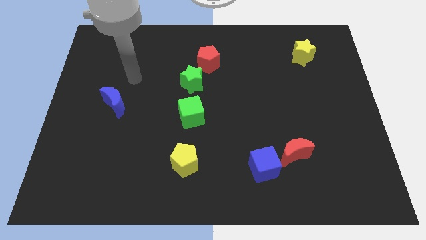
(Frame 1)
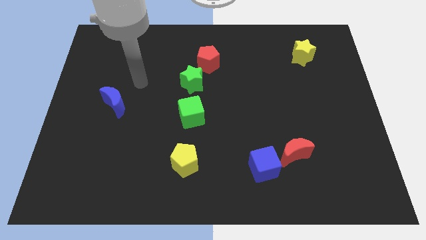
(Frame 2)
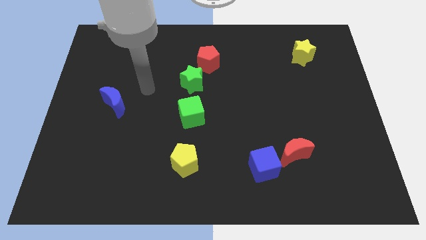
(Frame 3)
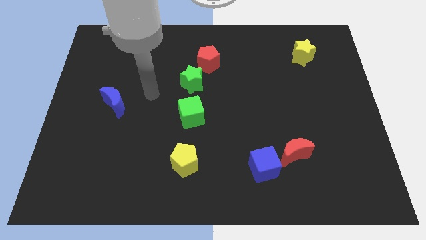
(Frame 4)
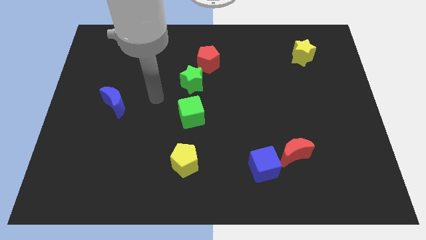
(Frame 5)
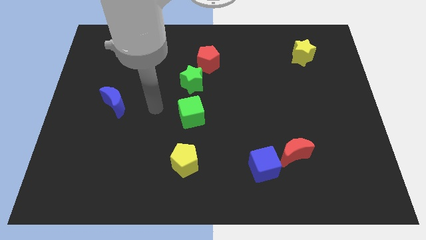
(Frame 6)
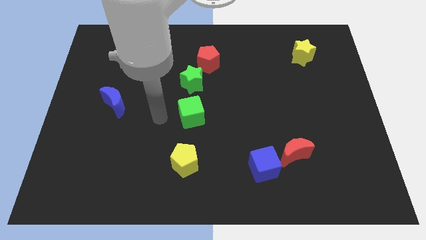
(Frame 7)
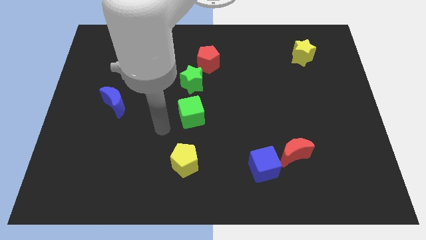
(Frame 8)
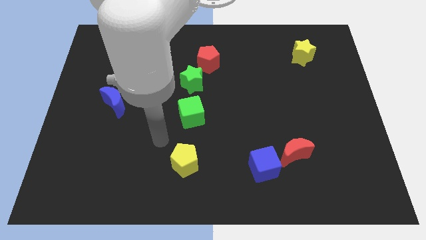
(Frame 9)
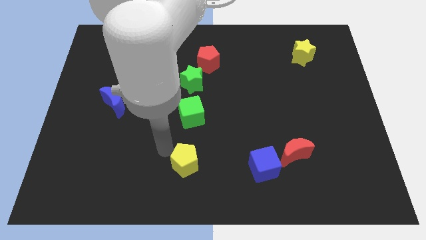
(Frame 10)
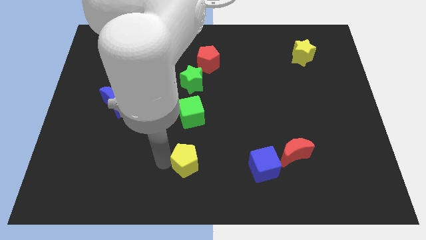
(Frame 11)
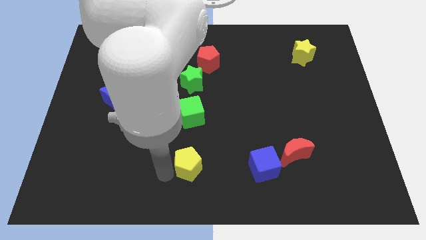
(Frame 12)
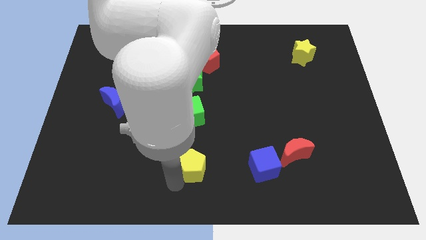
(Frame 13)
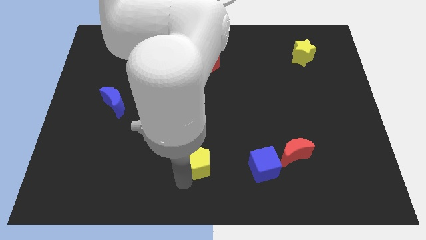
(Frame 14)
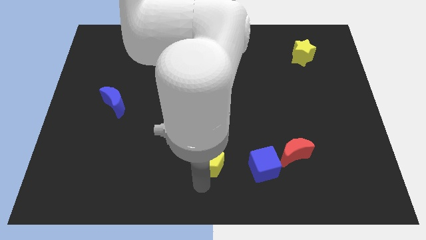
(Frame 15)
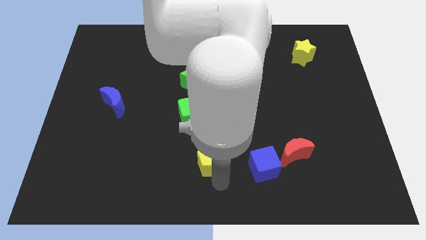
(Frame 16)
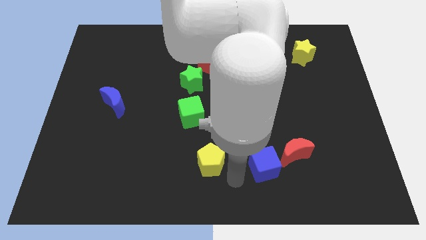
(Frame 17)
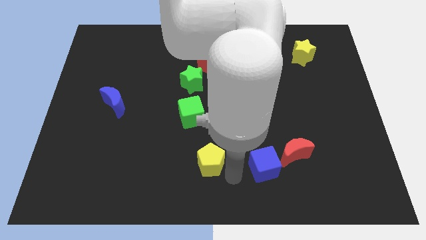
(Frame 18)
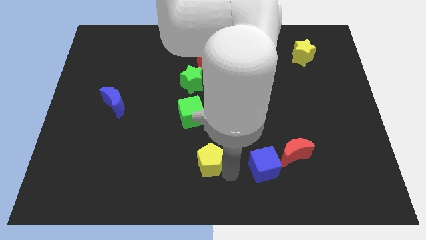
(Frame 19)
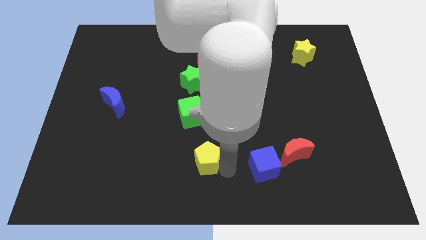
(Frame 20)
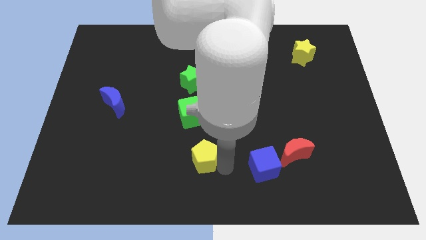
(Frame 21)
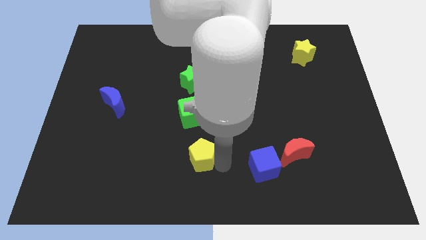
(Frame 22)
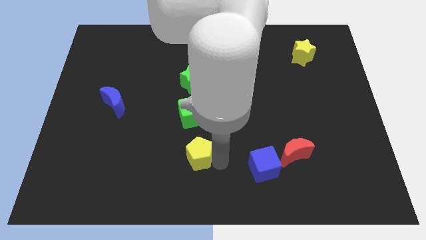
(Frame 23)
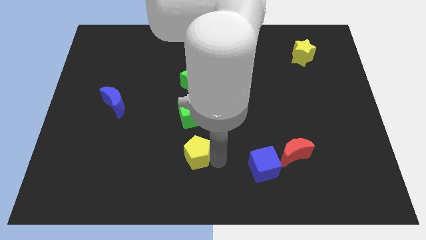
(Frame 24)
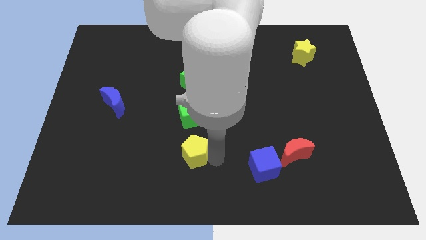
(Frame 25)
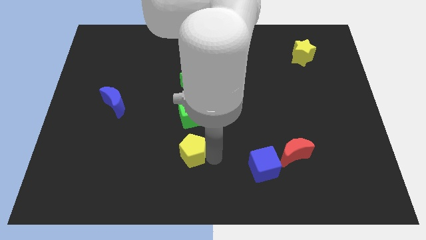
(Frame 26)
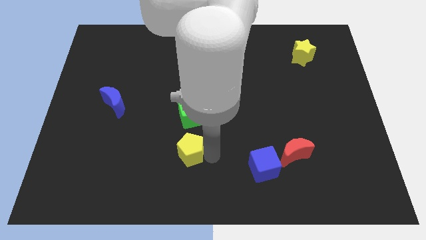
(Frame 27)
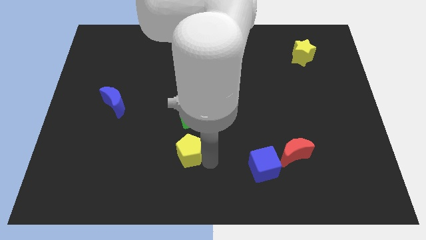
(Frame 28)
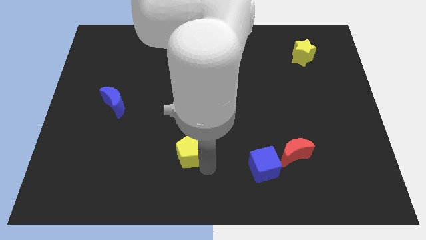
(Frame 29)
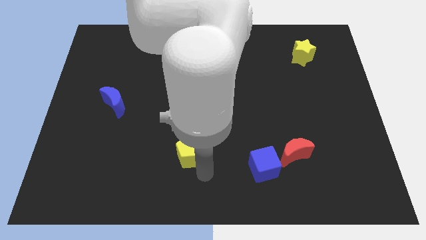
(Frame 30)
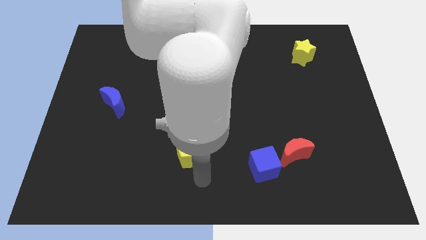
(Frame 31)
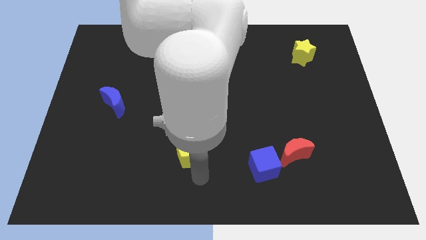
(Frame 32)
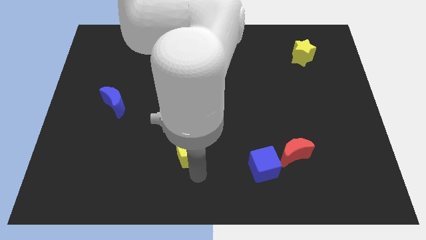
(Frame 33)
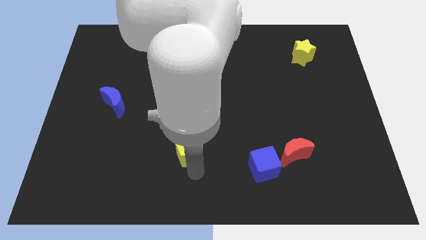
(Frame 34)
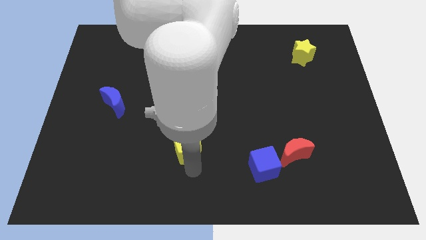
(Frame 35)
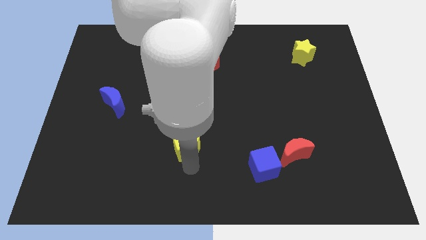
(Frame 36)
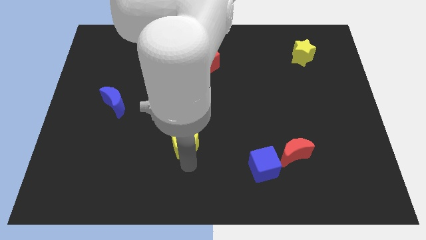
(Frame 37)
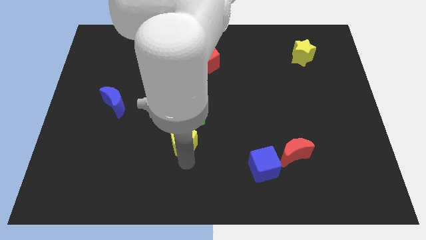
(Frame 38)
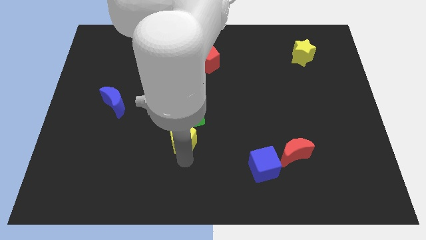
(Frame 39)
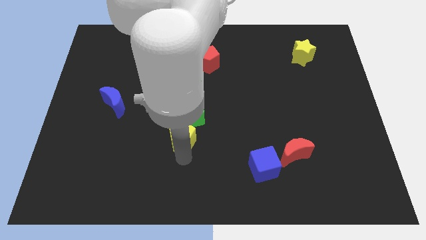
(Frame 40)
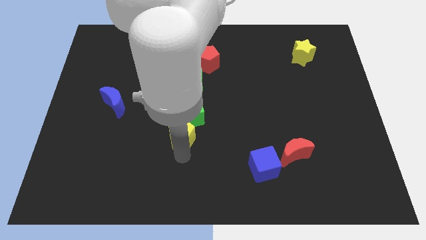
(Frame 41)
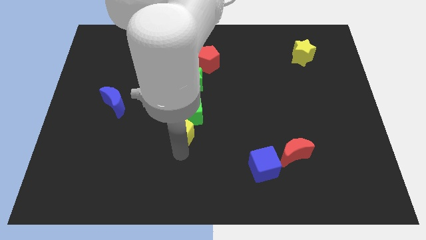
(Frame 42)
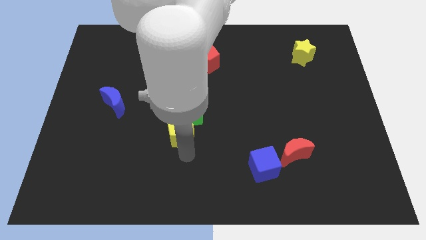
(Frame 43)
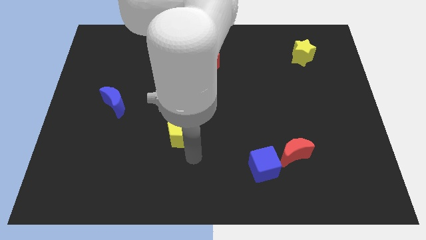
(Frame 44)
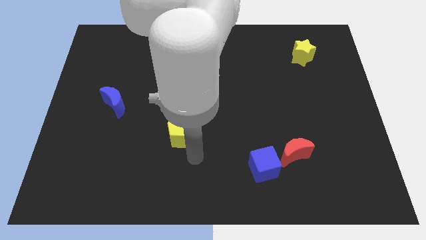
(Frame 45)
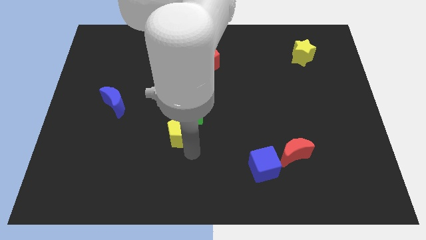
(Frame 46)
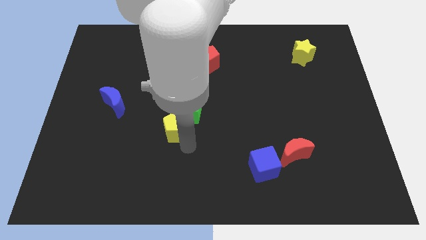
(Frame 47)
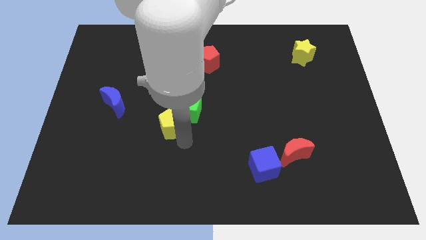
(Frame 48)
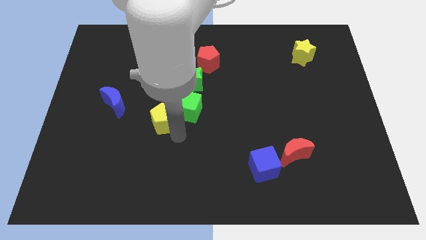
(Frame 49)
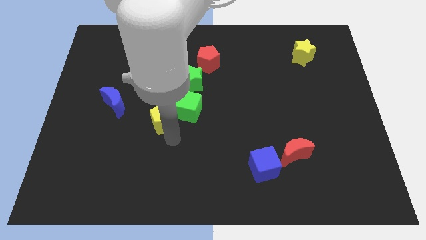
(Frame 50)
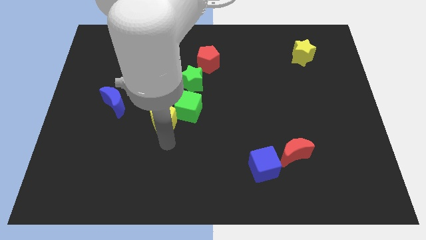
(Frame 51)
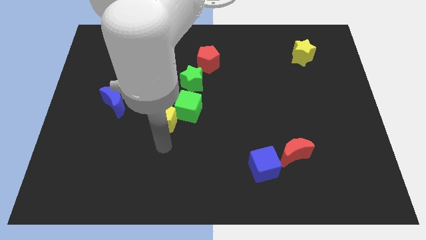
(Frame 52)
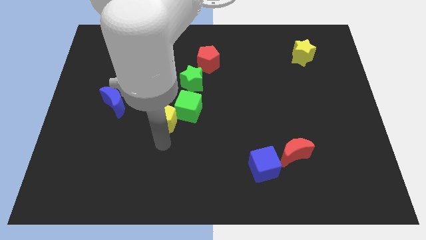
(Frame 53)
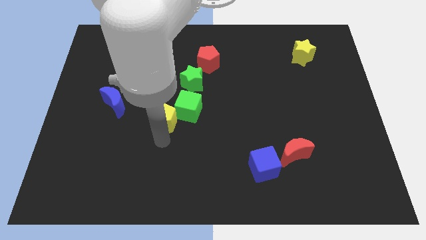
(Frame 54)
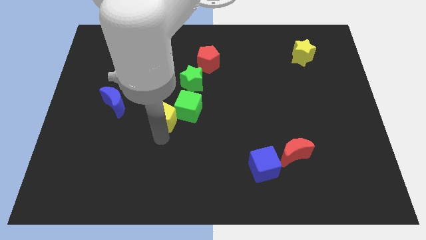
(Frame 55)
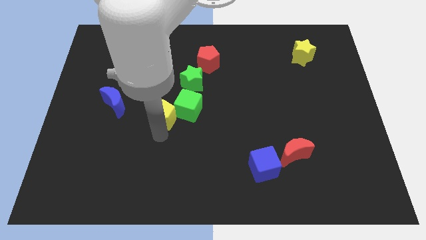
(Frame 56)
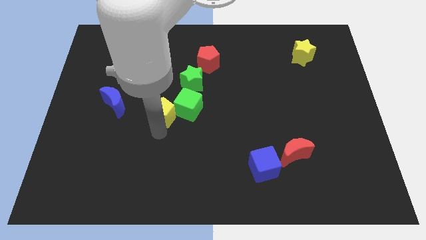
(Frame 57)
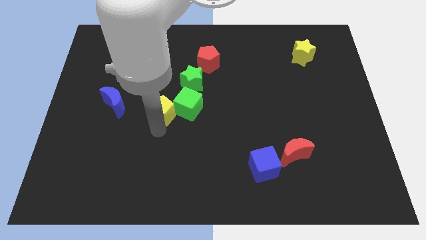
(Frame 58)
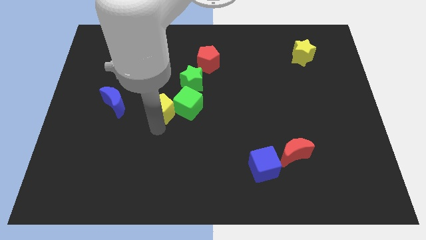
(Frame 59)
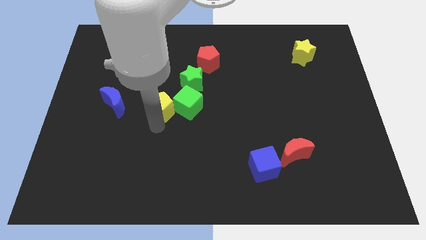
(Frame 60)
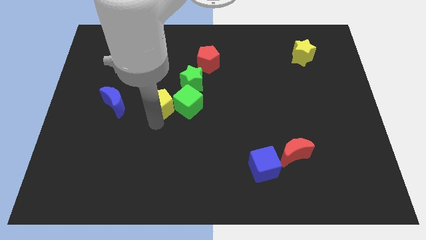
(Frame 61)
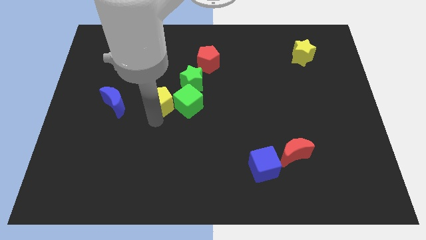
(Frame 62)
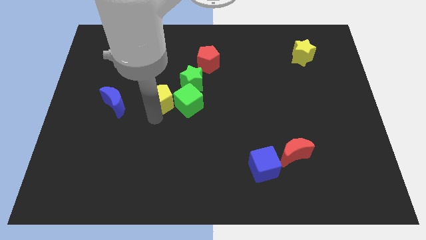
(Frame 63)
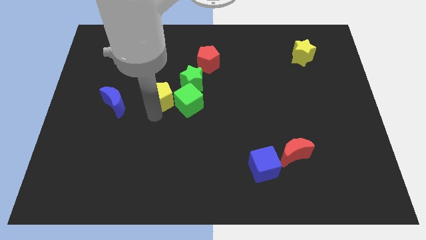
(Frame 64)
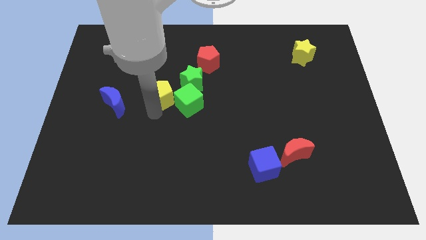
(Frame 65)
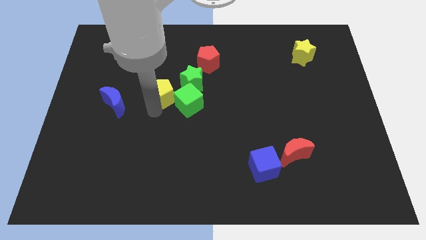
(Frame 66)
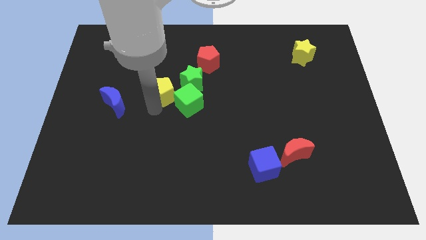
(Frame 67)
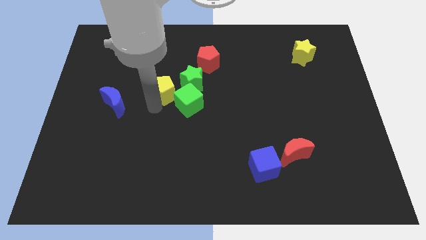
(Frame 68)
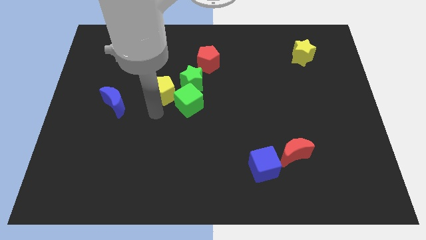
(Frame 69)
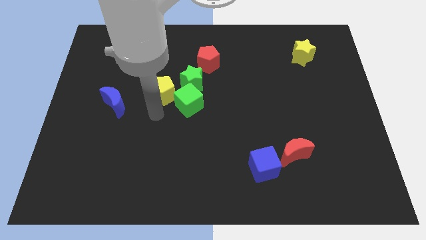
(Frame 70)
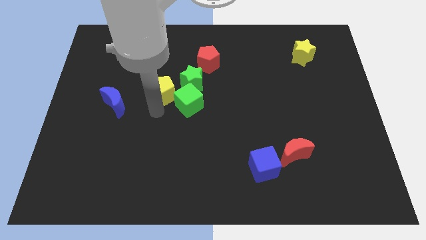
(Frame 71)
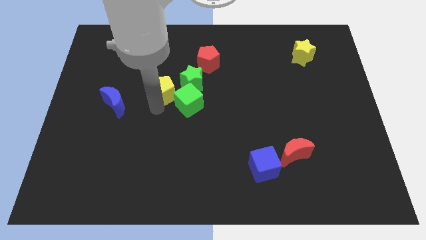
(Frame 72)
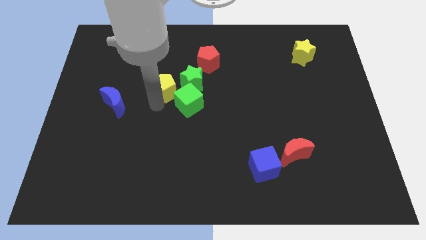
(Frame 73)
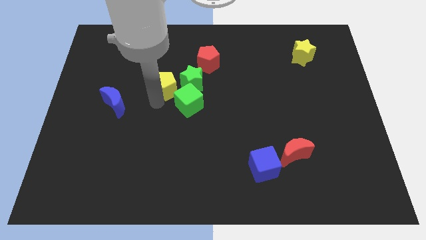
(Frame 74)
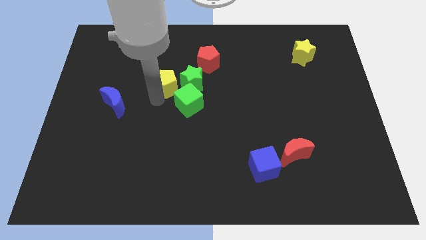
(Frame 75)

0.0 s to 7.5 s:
move the yellow pentagon to the top left side of the green star
